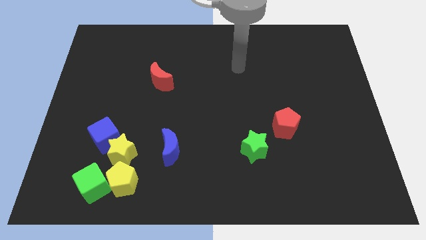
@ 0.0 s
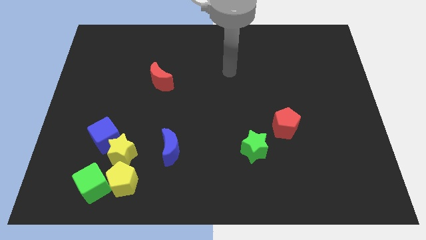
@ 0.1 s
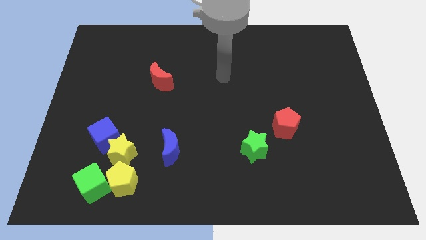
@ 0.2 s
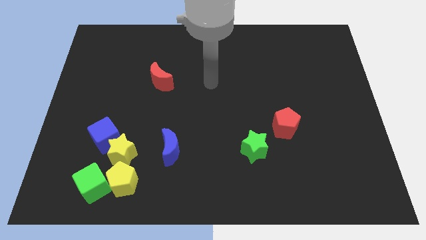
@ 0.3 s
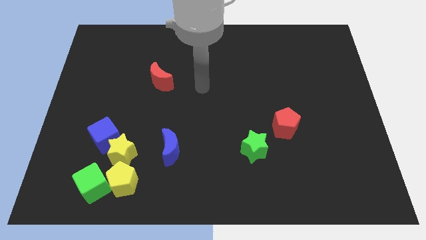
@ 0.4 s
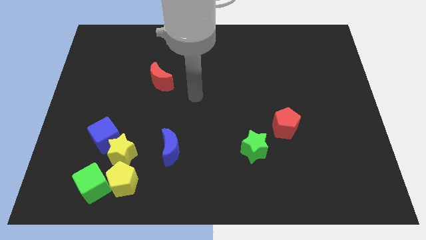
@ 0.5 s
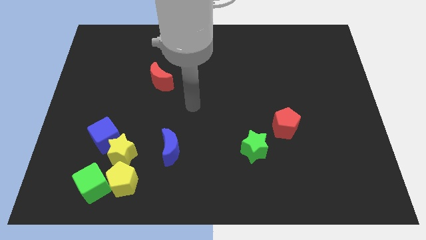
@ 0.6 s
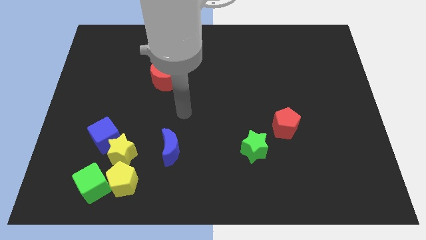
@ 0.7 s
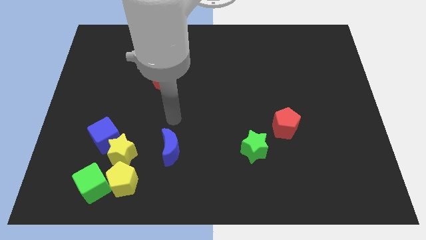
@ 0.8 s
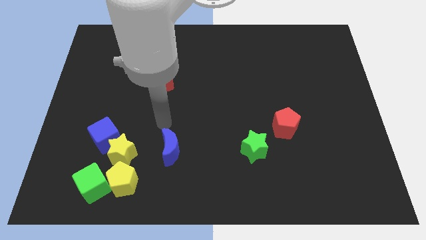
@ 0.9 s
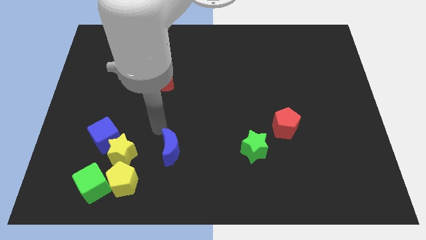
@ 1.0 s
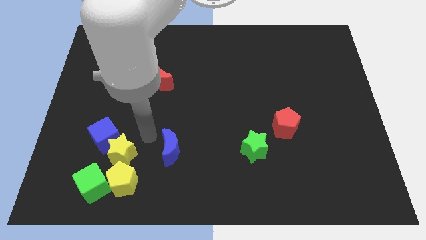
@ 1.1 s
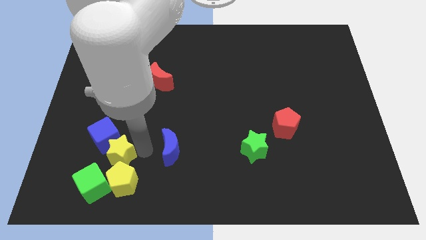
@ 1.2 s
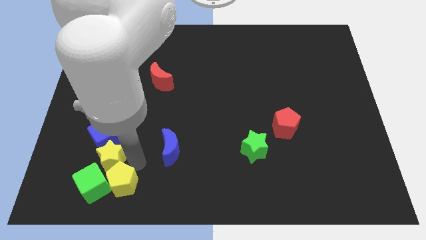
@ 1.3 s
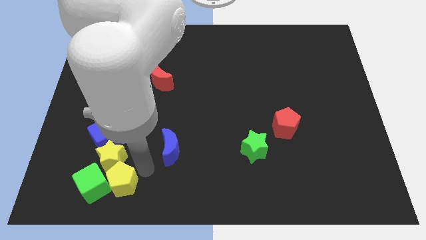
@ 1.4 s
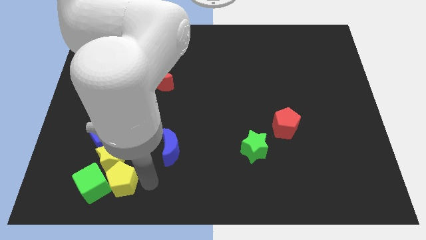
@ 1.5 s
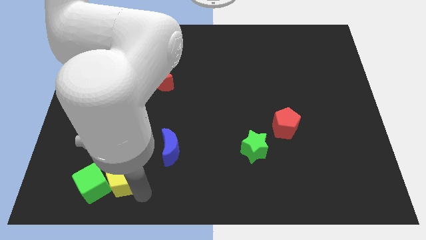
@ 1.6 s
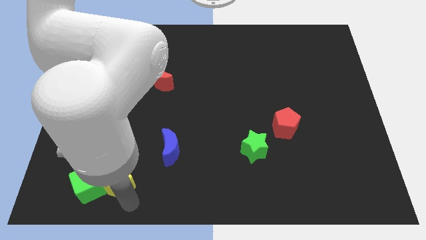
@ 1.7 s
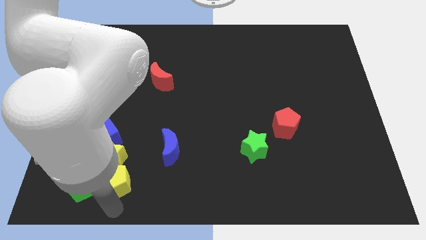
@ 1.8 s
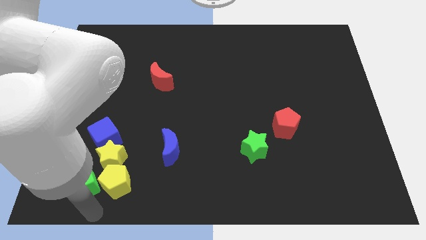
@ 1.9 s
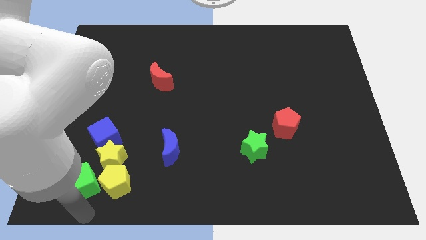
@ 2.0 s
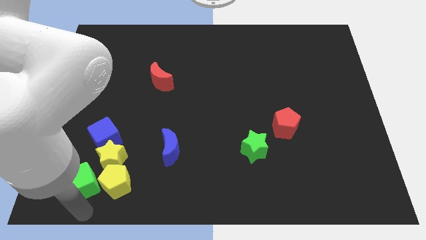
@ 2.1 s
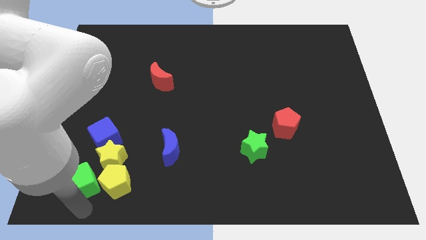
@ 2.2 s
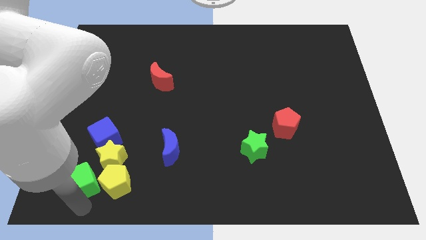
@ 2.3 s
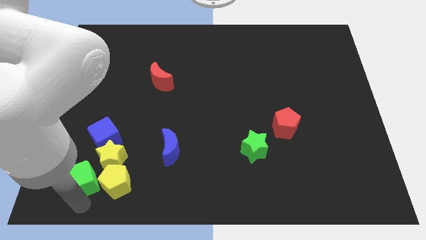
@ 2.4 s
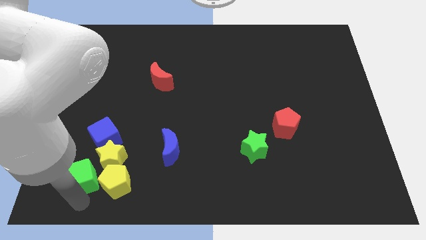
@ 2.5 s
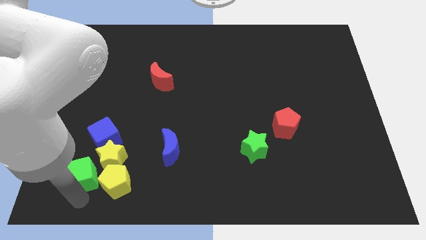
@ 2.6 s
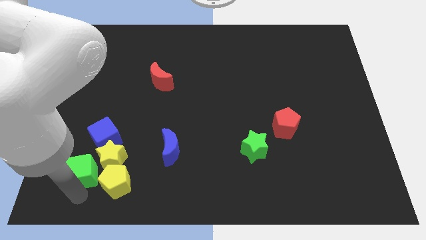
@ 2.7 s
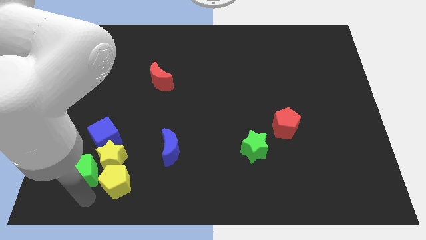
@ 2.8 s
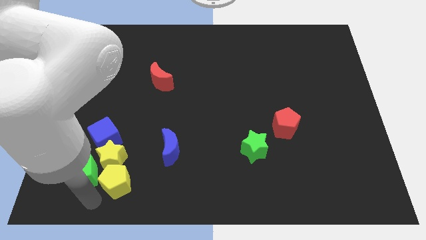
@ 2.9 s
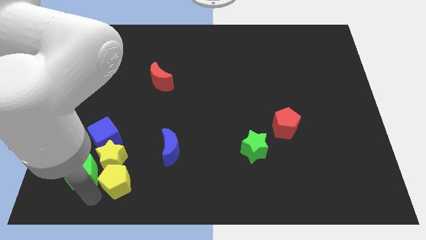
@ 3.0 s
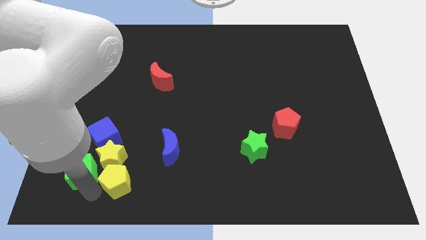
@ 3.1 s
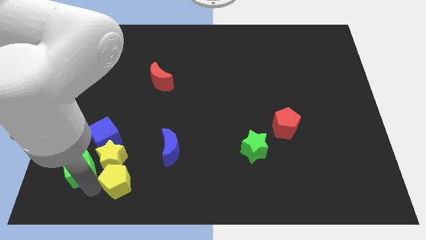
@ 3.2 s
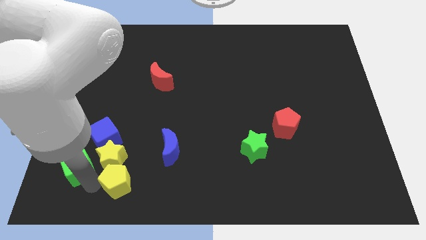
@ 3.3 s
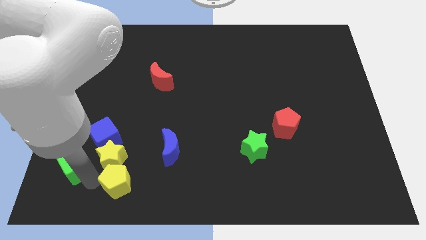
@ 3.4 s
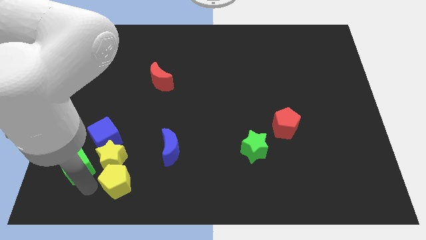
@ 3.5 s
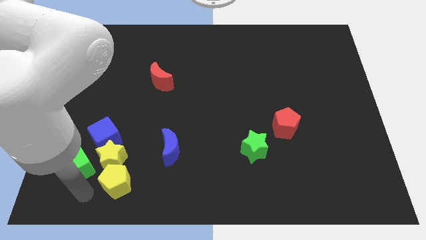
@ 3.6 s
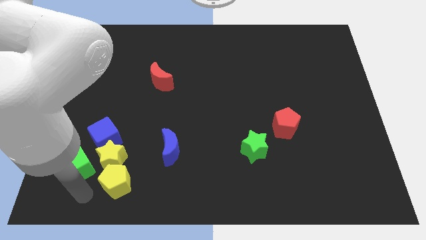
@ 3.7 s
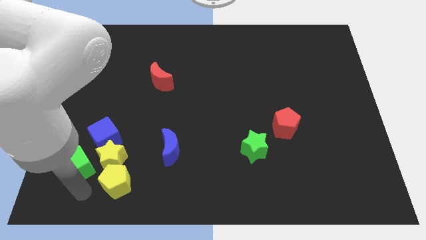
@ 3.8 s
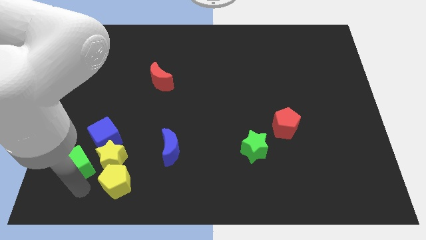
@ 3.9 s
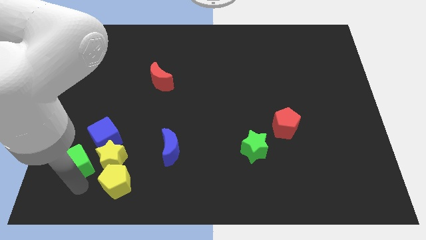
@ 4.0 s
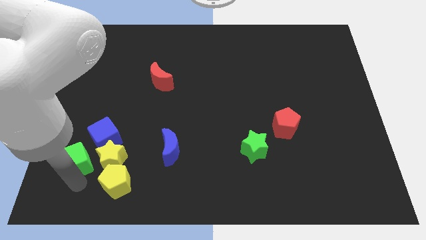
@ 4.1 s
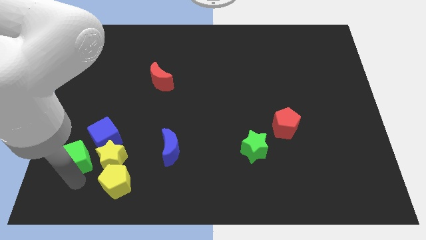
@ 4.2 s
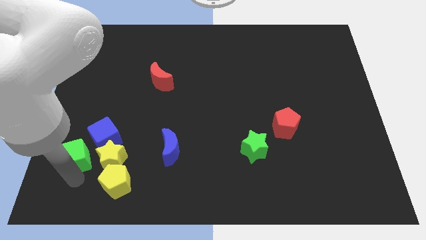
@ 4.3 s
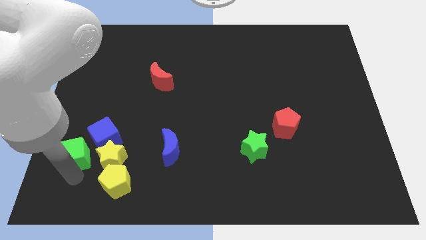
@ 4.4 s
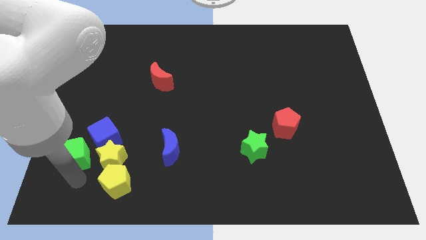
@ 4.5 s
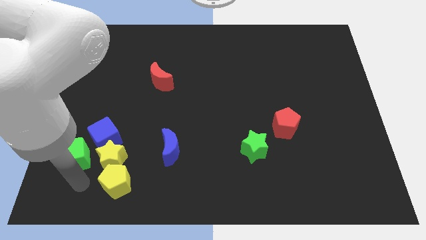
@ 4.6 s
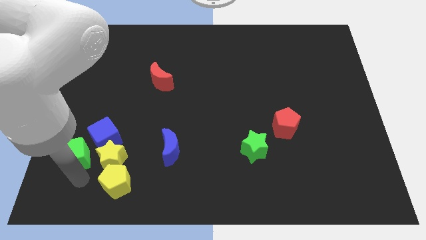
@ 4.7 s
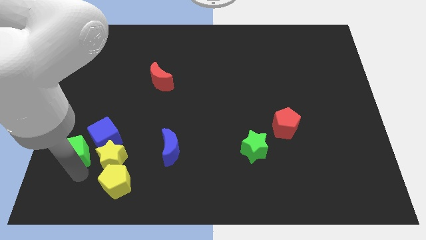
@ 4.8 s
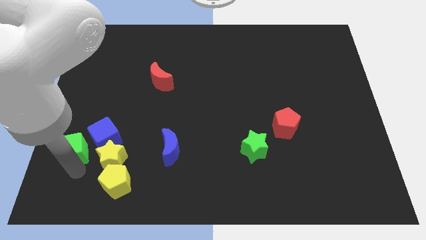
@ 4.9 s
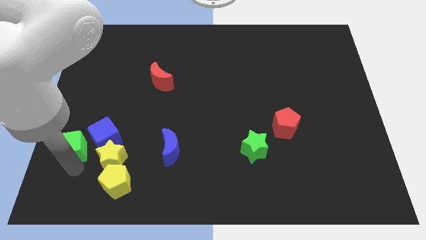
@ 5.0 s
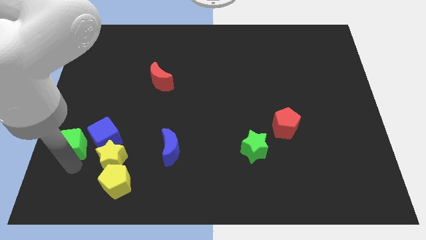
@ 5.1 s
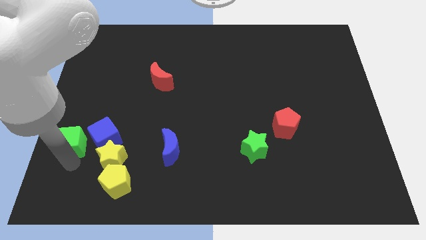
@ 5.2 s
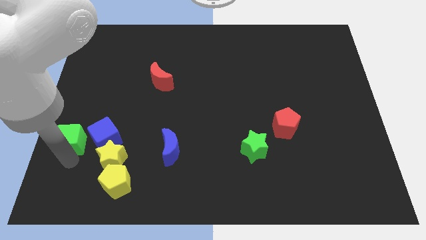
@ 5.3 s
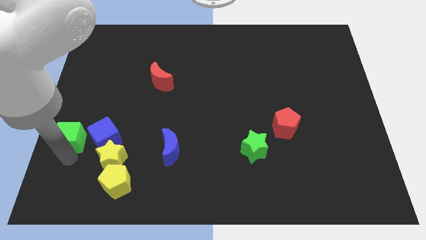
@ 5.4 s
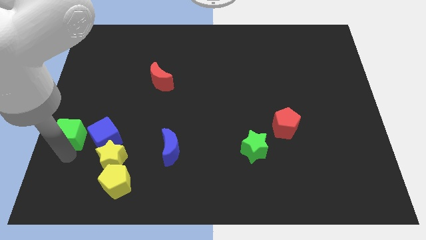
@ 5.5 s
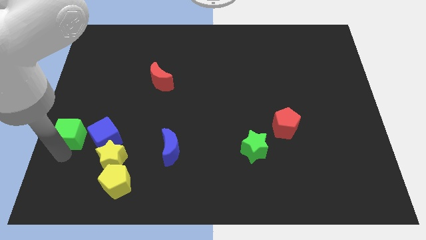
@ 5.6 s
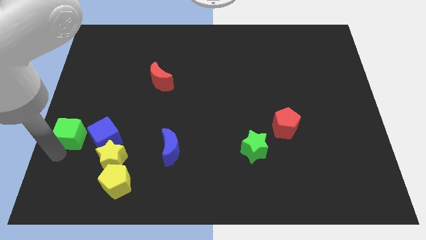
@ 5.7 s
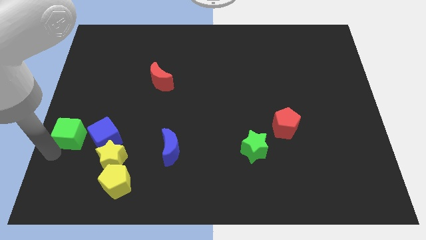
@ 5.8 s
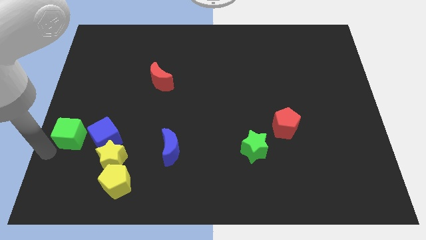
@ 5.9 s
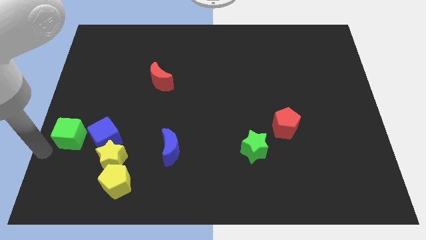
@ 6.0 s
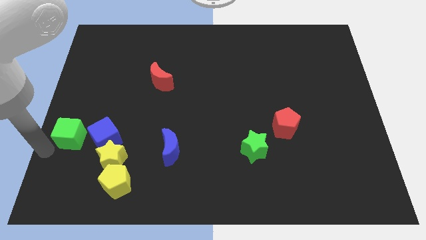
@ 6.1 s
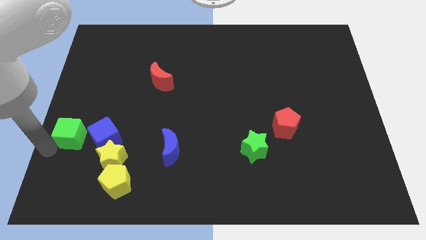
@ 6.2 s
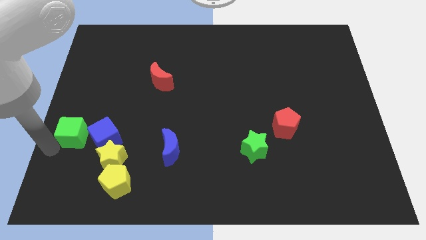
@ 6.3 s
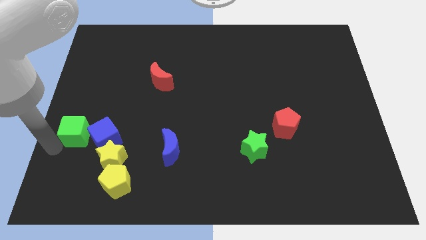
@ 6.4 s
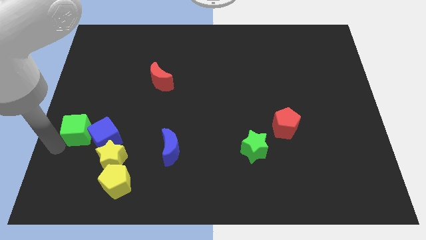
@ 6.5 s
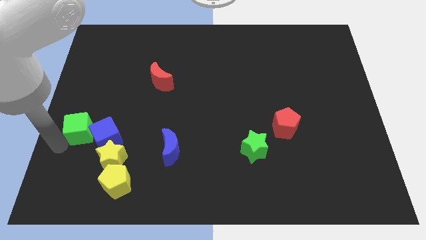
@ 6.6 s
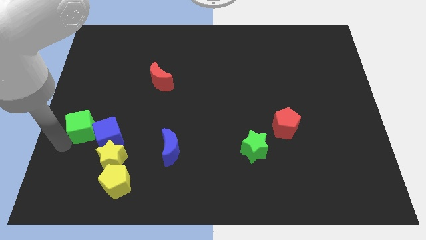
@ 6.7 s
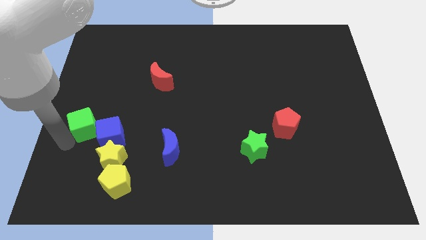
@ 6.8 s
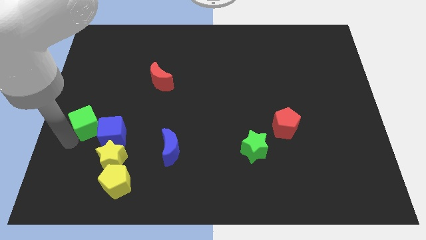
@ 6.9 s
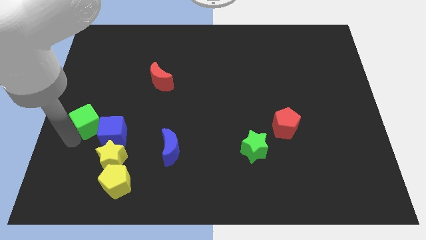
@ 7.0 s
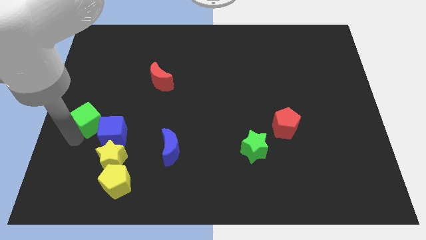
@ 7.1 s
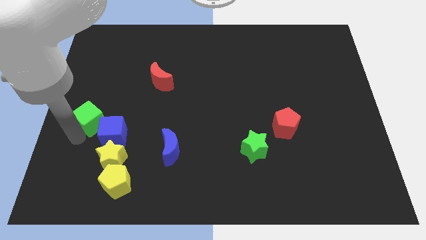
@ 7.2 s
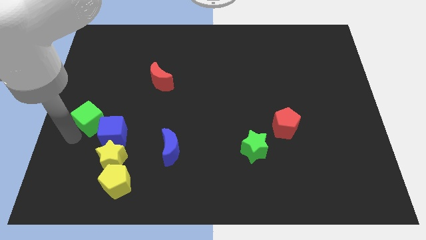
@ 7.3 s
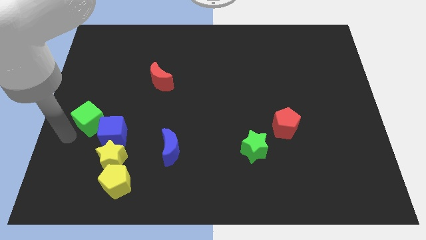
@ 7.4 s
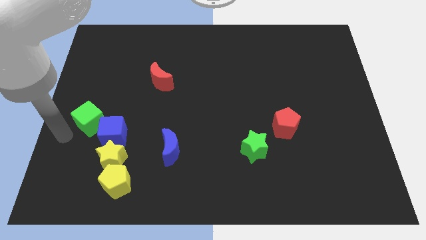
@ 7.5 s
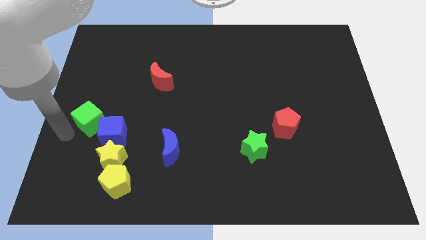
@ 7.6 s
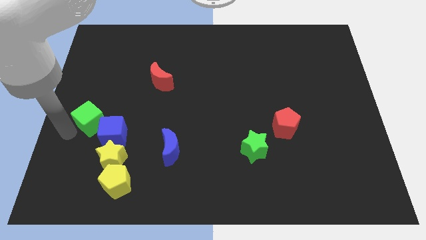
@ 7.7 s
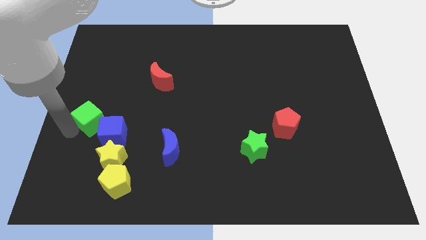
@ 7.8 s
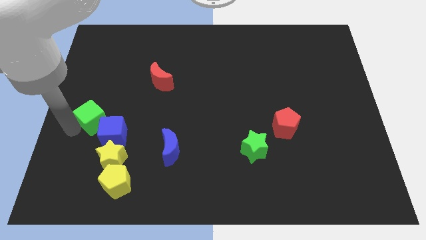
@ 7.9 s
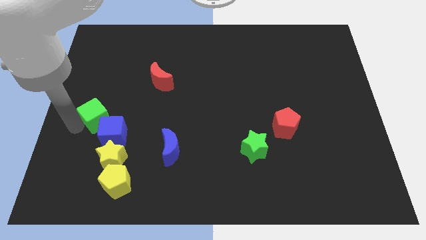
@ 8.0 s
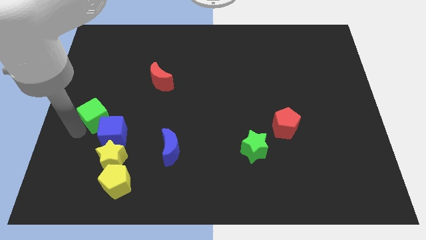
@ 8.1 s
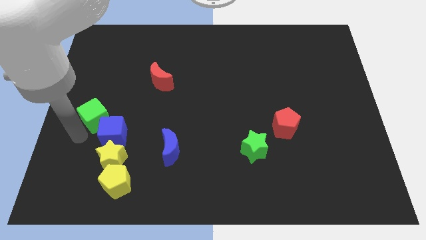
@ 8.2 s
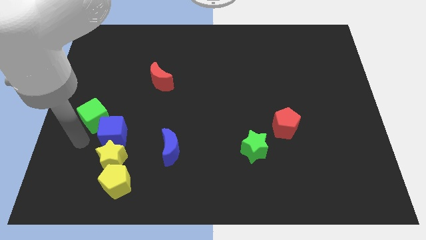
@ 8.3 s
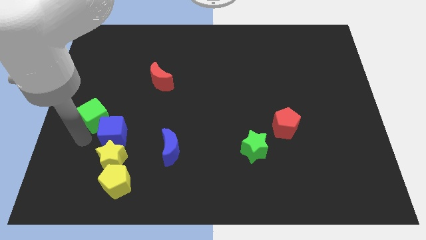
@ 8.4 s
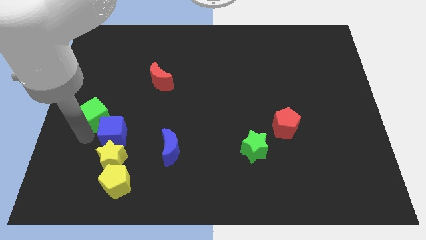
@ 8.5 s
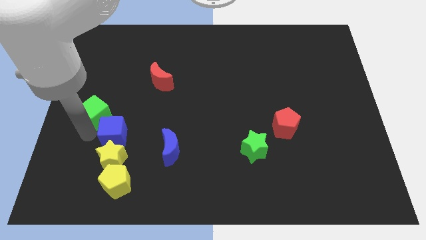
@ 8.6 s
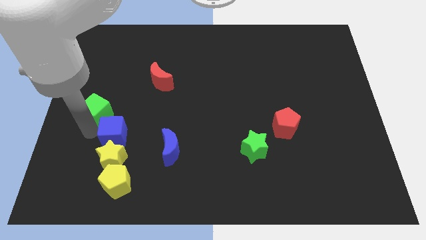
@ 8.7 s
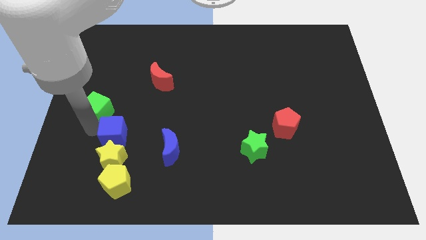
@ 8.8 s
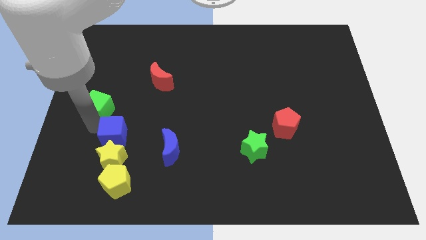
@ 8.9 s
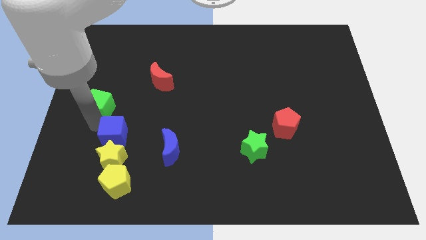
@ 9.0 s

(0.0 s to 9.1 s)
slide the green cube up
